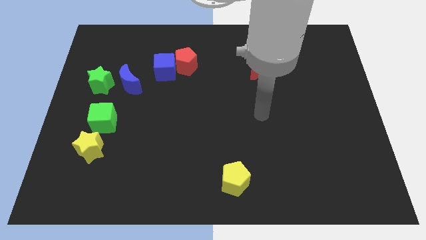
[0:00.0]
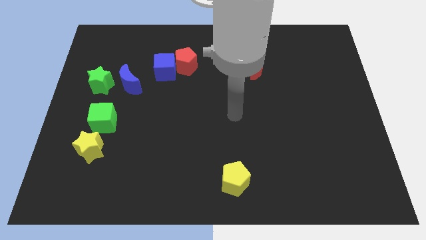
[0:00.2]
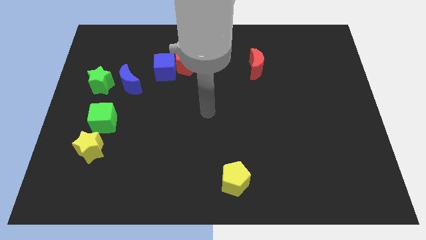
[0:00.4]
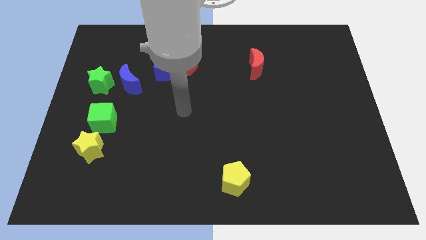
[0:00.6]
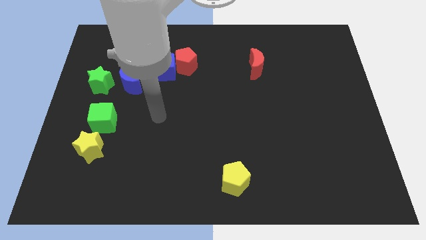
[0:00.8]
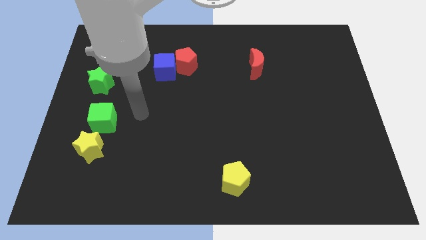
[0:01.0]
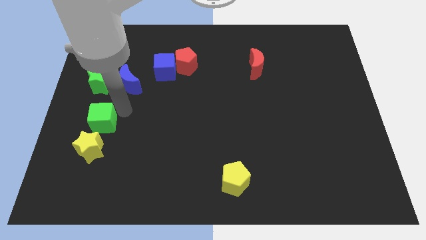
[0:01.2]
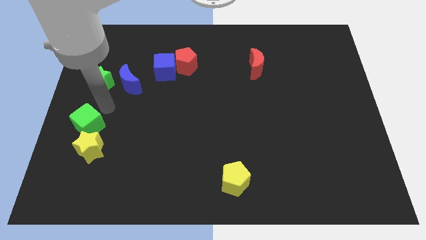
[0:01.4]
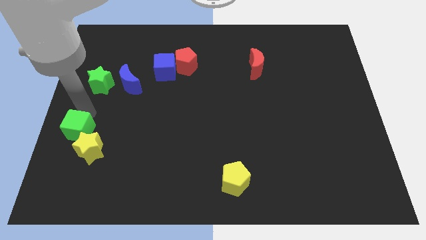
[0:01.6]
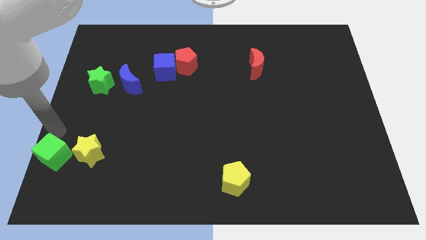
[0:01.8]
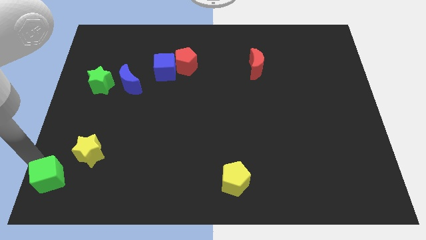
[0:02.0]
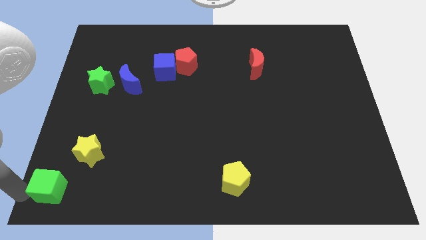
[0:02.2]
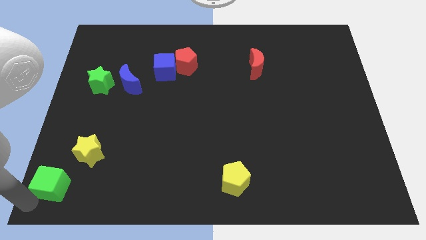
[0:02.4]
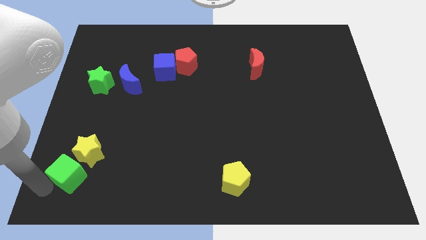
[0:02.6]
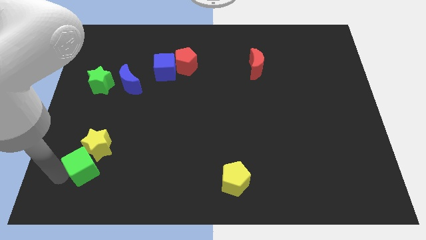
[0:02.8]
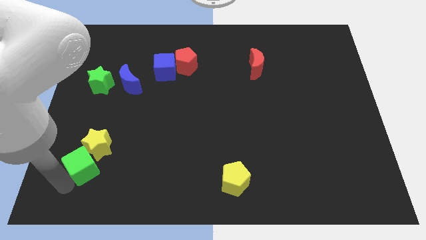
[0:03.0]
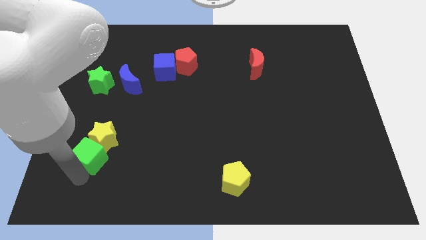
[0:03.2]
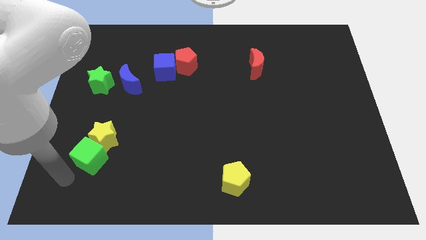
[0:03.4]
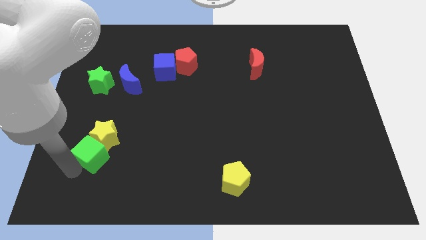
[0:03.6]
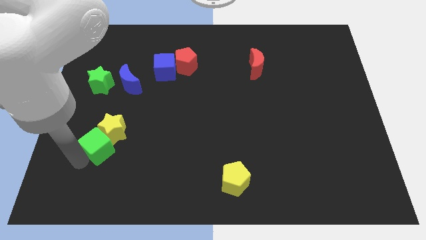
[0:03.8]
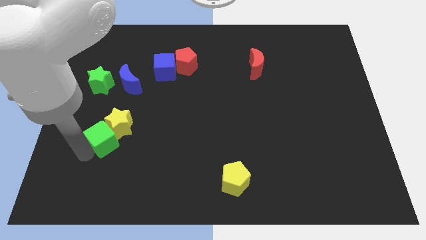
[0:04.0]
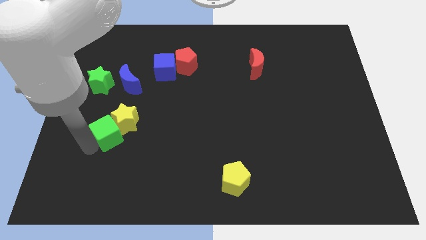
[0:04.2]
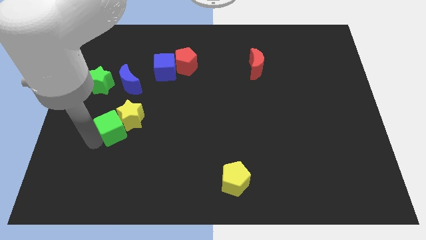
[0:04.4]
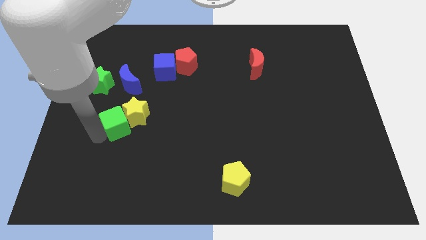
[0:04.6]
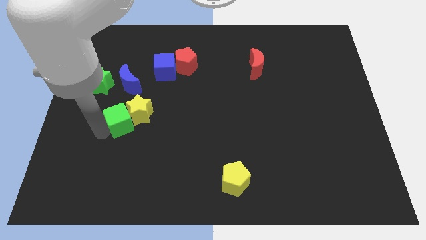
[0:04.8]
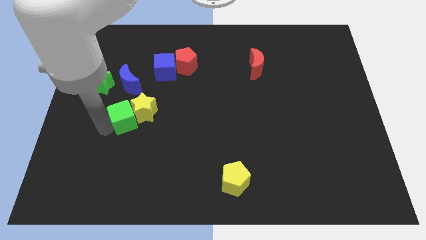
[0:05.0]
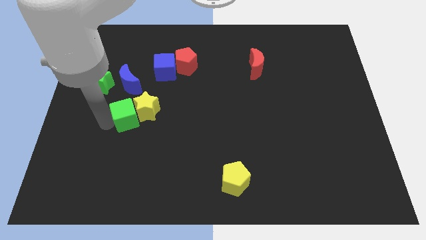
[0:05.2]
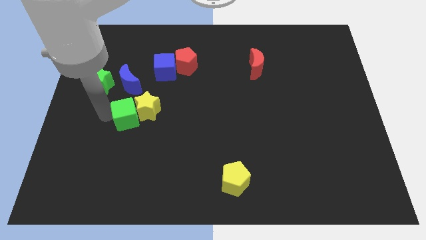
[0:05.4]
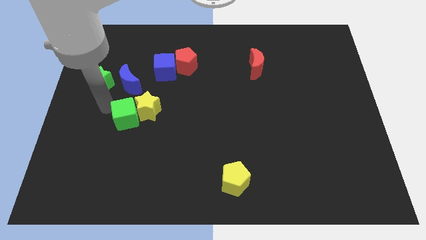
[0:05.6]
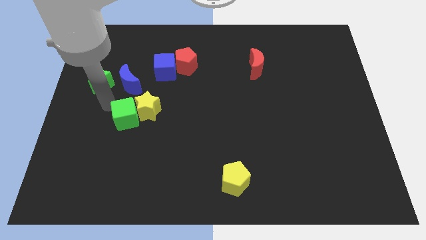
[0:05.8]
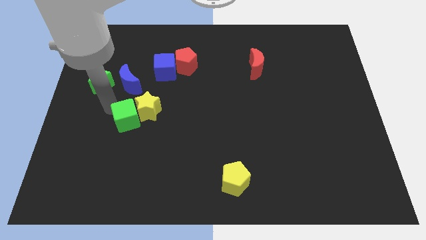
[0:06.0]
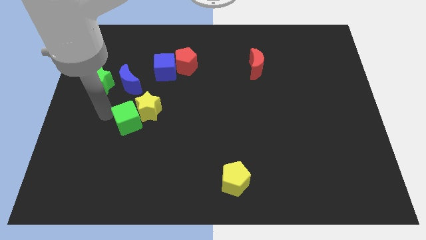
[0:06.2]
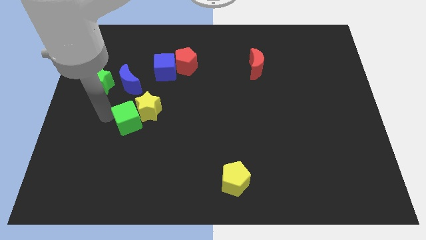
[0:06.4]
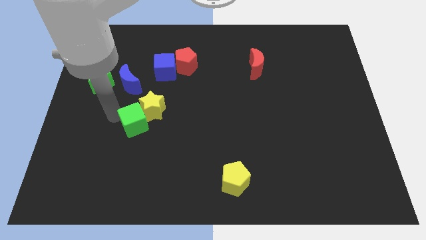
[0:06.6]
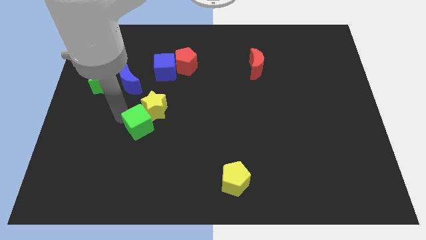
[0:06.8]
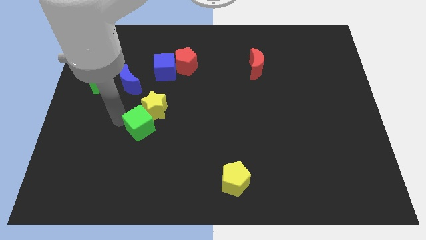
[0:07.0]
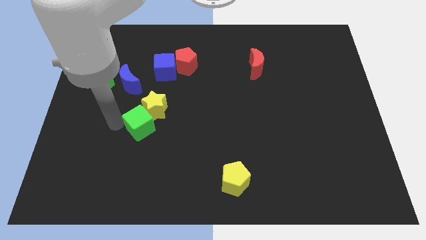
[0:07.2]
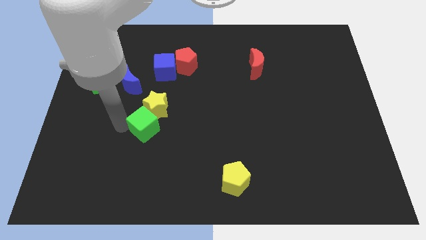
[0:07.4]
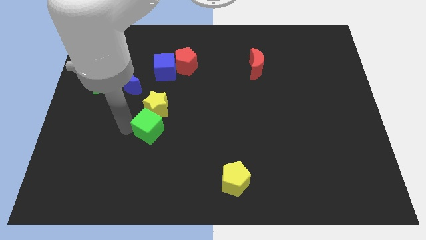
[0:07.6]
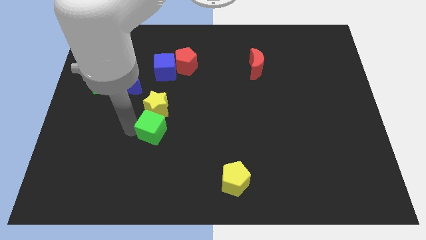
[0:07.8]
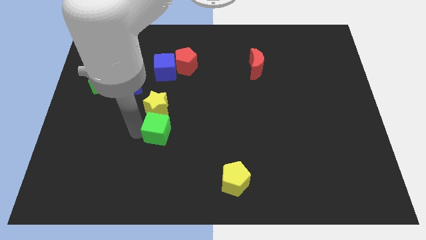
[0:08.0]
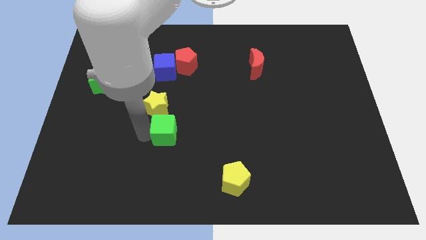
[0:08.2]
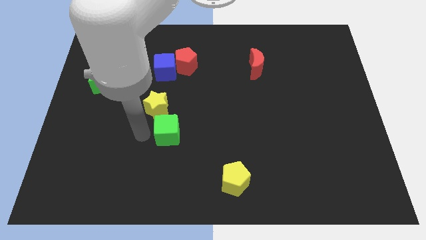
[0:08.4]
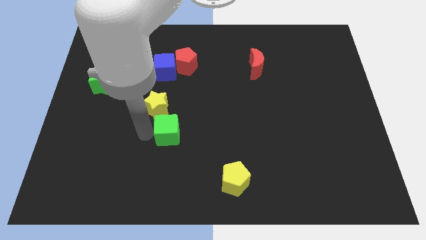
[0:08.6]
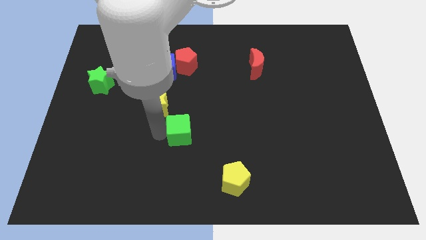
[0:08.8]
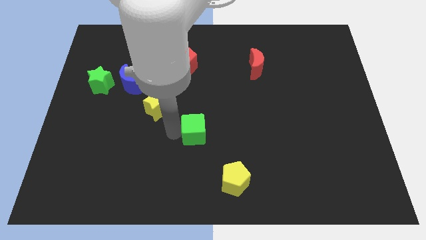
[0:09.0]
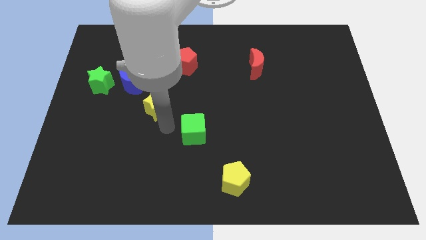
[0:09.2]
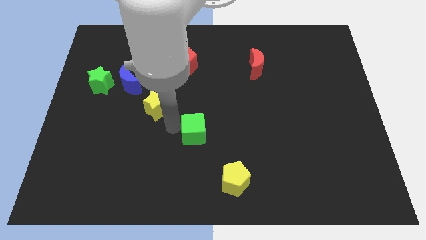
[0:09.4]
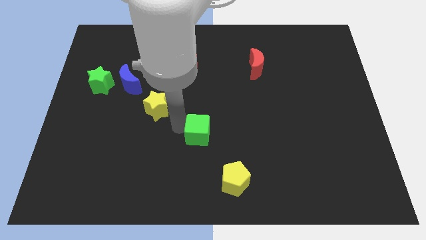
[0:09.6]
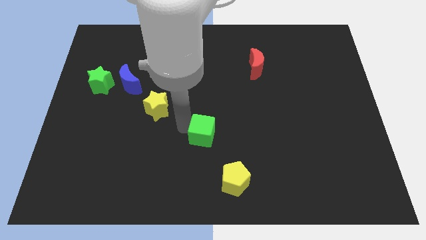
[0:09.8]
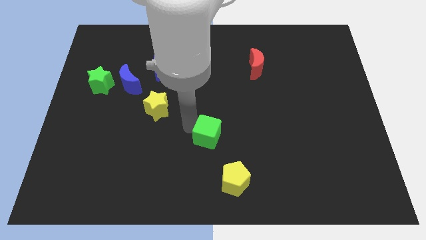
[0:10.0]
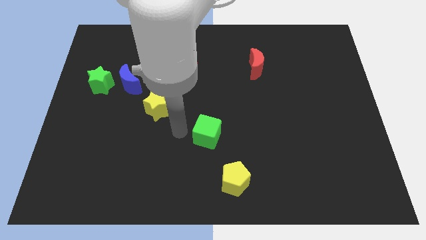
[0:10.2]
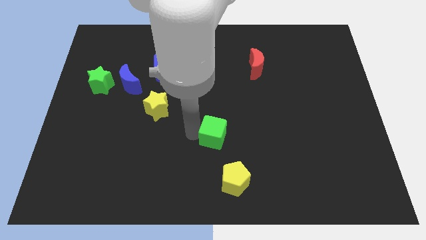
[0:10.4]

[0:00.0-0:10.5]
push the green cube to the top side of the yellow pentagon

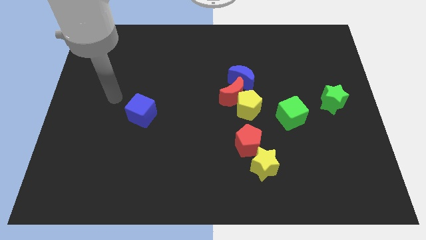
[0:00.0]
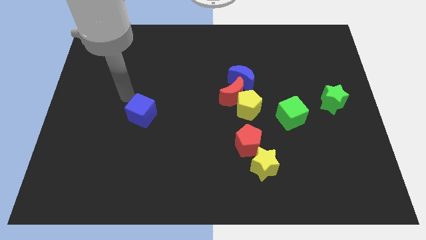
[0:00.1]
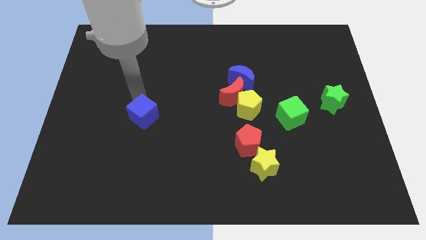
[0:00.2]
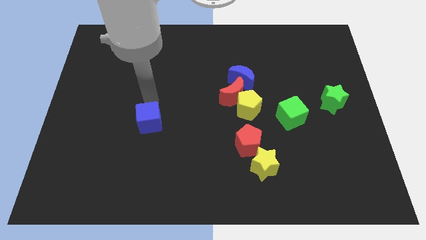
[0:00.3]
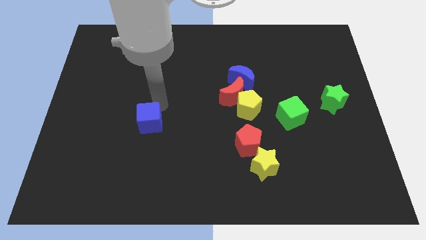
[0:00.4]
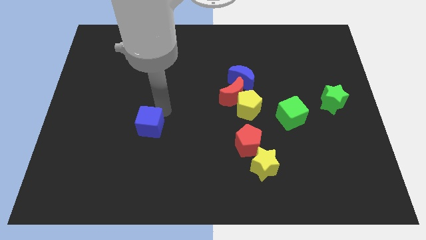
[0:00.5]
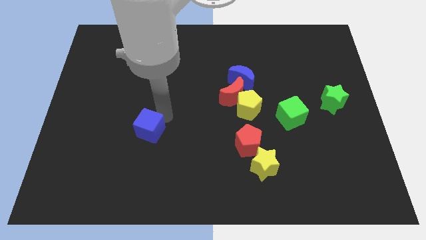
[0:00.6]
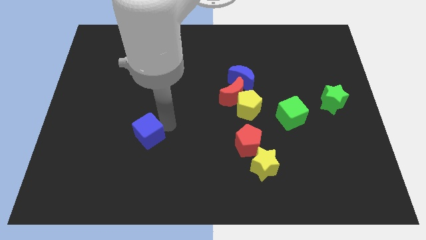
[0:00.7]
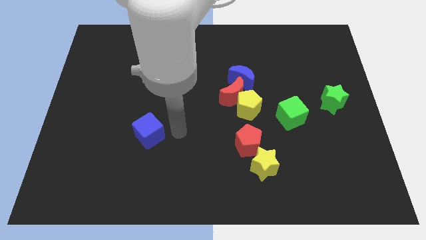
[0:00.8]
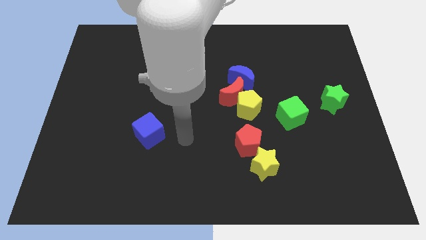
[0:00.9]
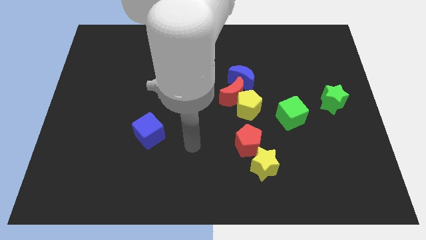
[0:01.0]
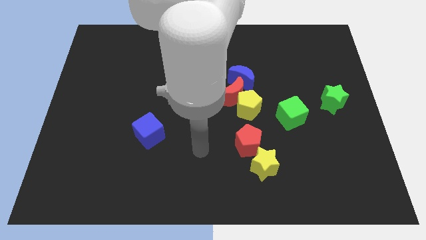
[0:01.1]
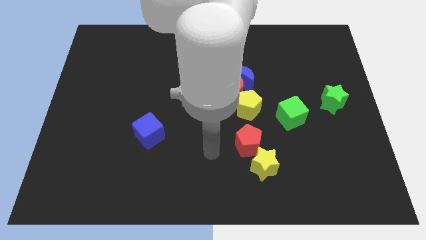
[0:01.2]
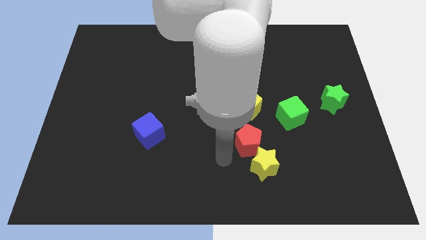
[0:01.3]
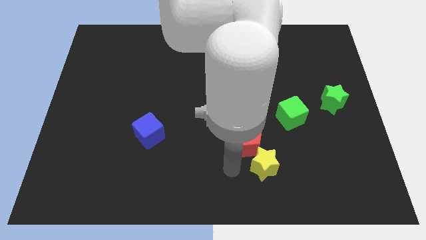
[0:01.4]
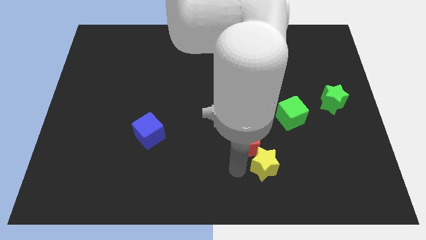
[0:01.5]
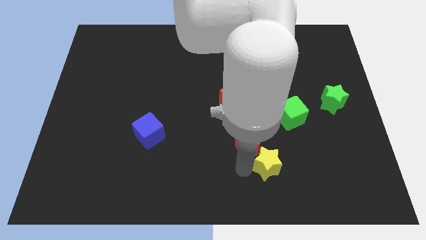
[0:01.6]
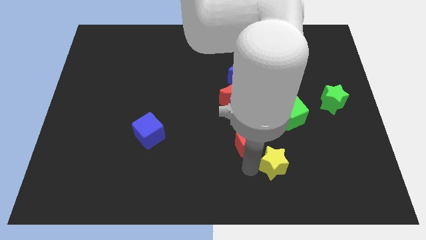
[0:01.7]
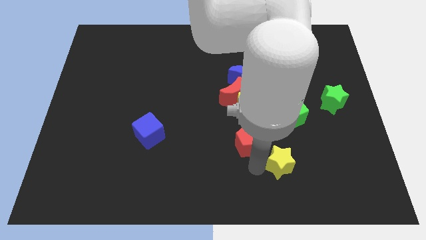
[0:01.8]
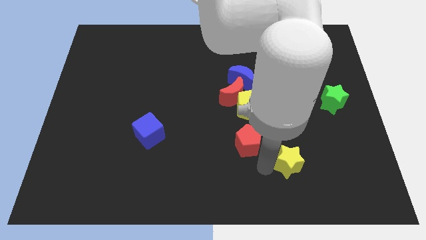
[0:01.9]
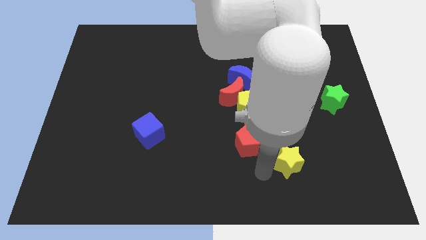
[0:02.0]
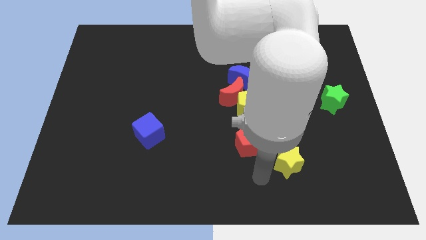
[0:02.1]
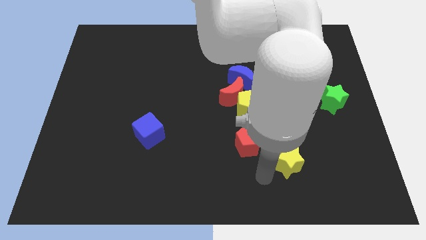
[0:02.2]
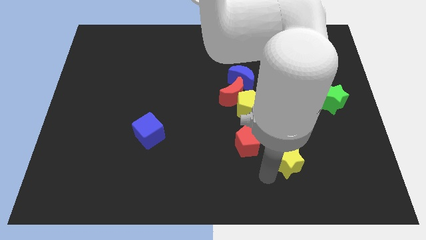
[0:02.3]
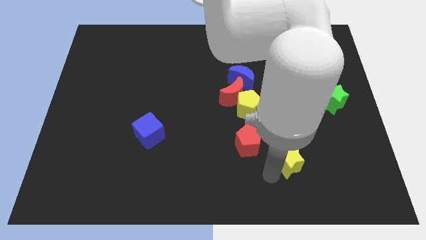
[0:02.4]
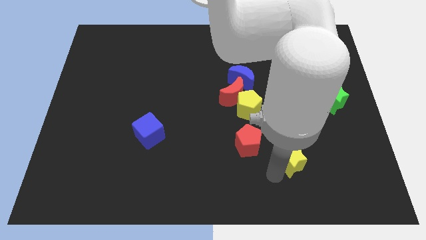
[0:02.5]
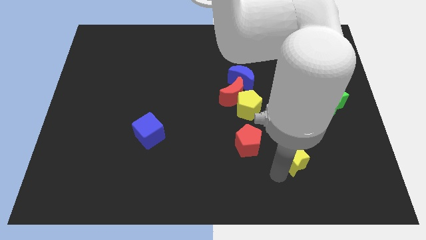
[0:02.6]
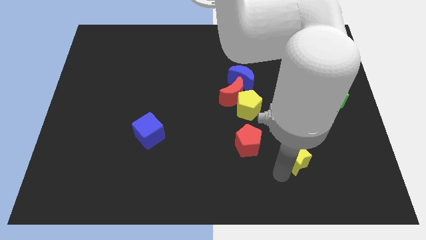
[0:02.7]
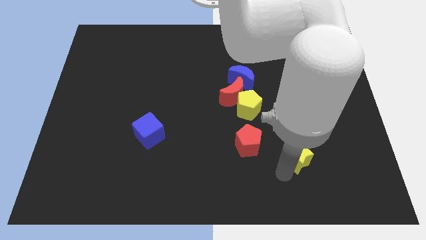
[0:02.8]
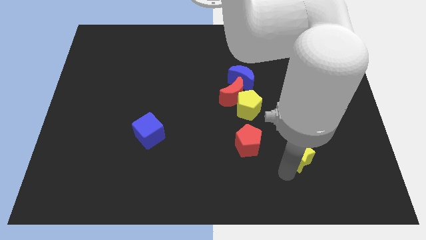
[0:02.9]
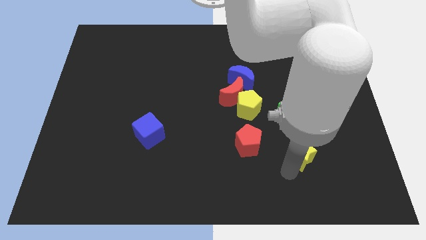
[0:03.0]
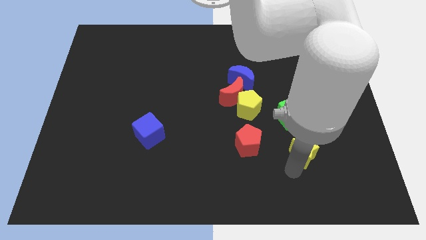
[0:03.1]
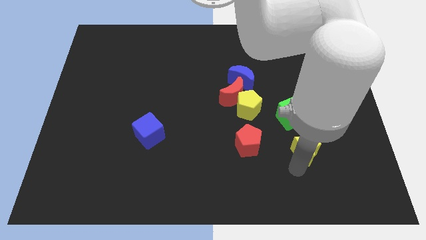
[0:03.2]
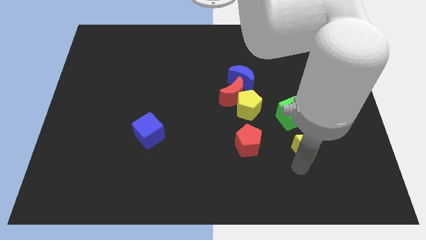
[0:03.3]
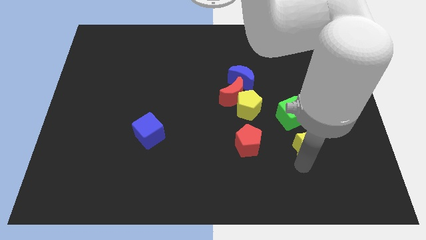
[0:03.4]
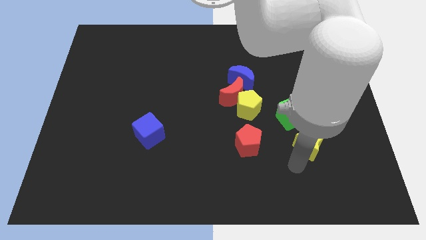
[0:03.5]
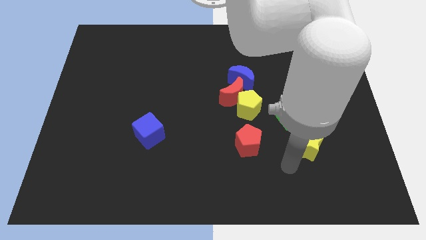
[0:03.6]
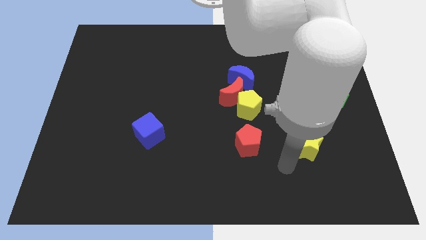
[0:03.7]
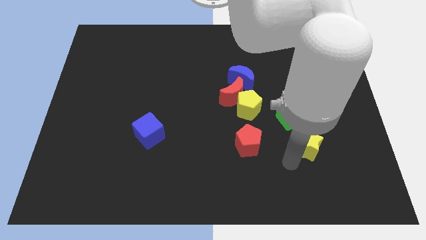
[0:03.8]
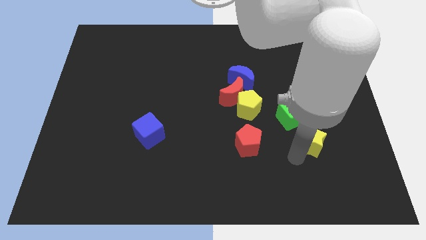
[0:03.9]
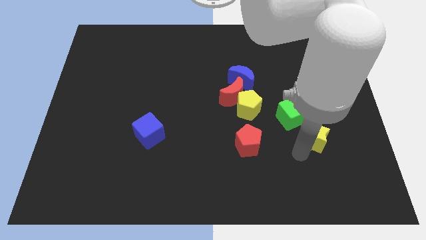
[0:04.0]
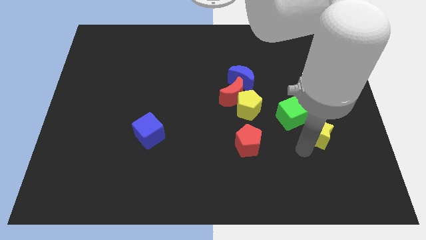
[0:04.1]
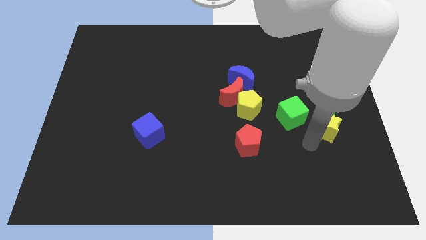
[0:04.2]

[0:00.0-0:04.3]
push the yellow star right of the green cube
